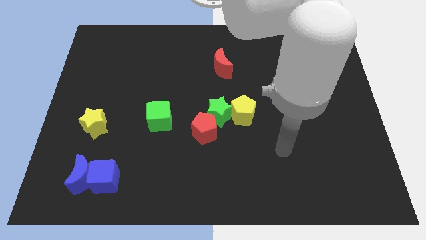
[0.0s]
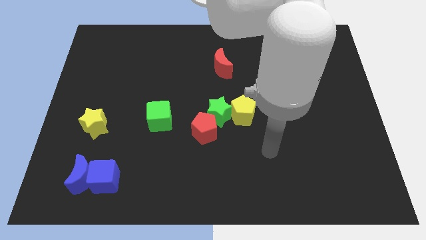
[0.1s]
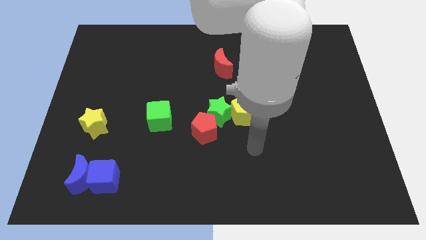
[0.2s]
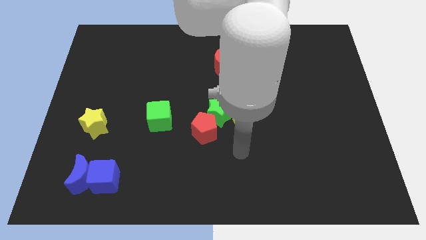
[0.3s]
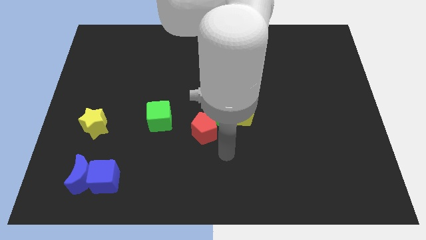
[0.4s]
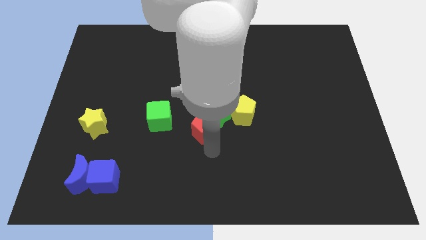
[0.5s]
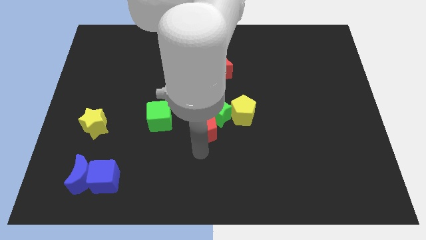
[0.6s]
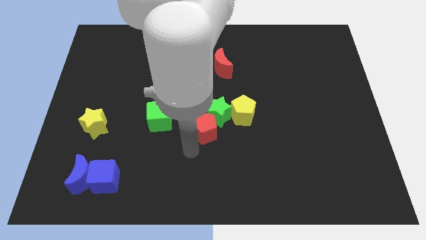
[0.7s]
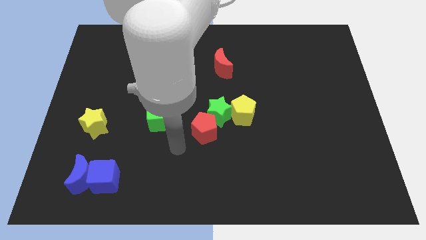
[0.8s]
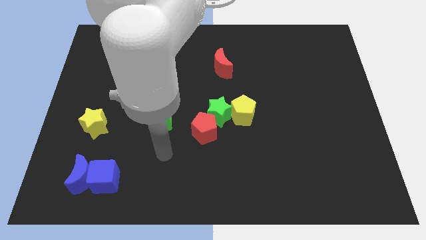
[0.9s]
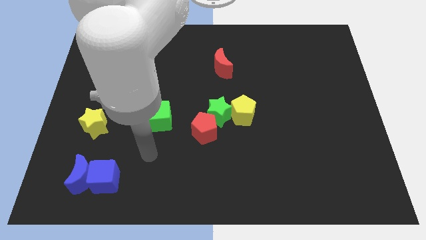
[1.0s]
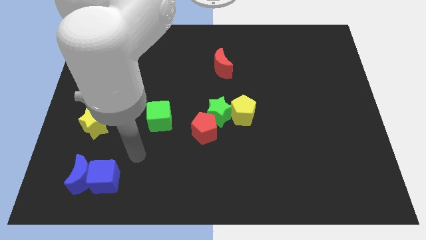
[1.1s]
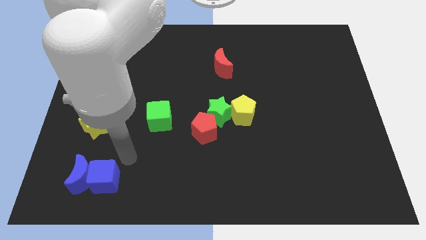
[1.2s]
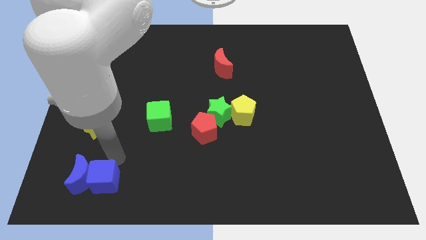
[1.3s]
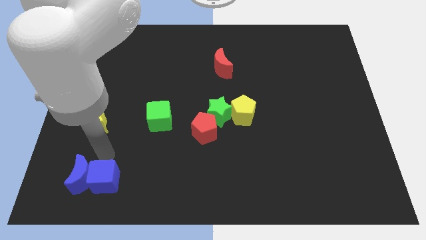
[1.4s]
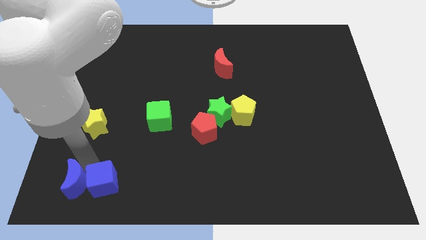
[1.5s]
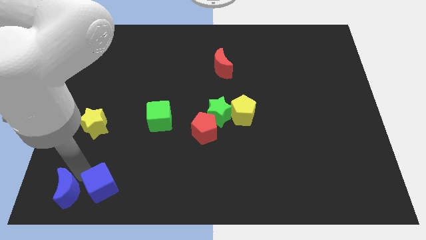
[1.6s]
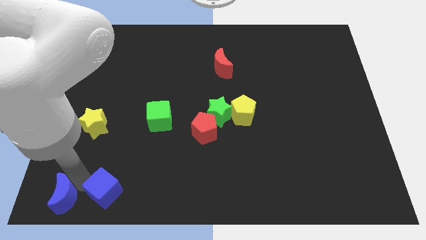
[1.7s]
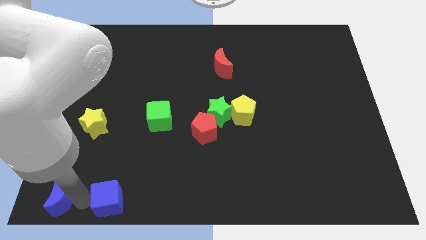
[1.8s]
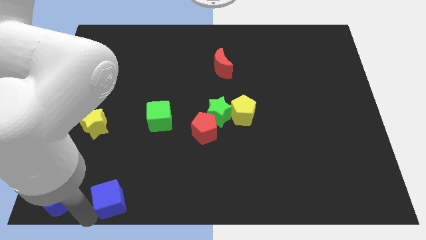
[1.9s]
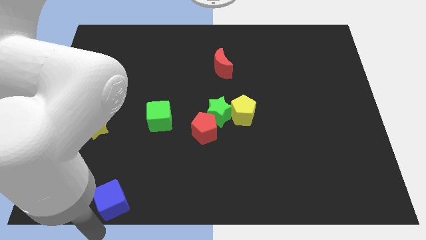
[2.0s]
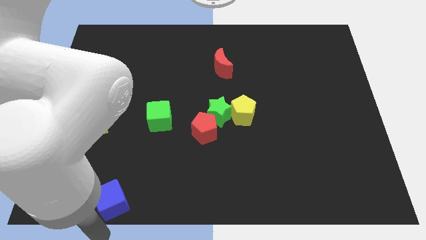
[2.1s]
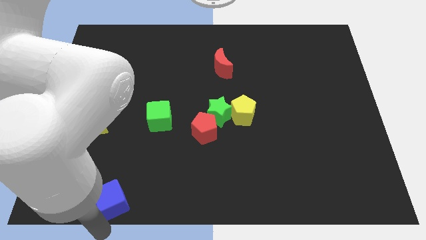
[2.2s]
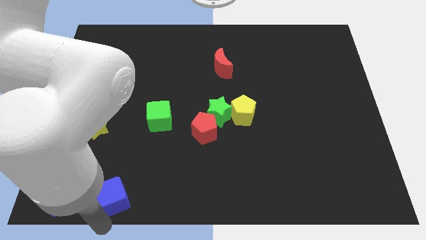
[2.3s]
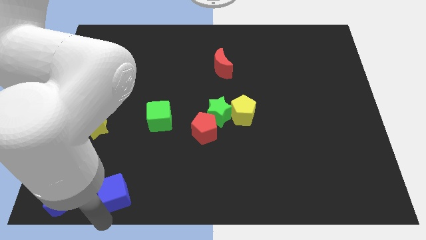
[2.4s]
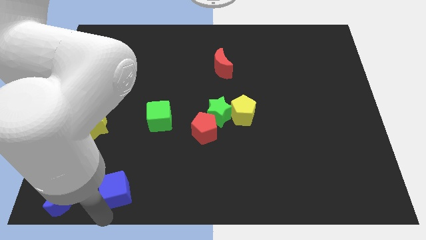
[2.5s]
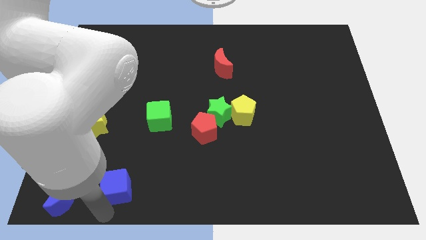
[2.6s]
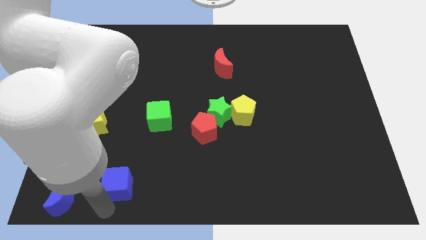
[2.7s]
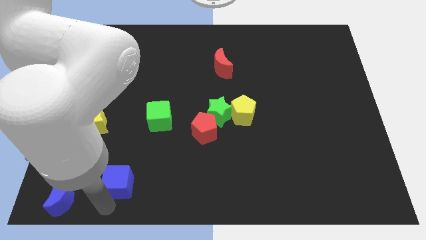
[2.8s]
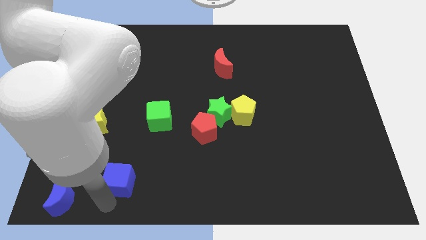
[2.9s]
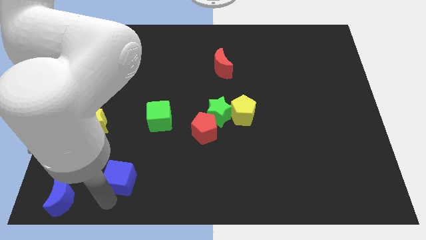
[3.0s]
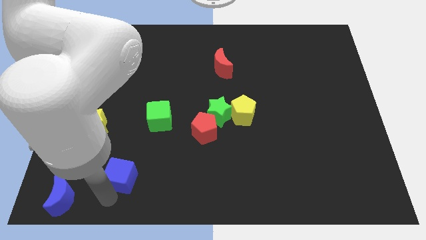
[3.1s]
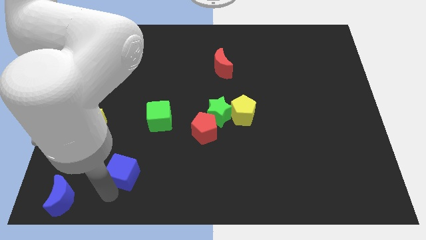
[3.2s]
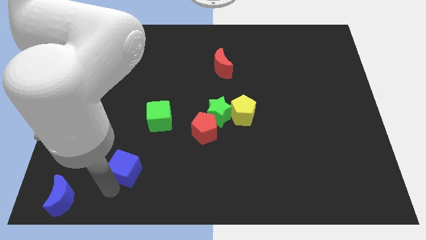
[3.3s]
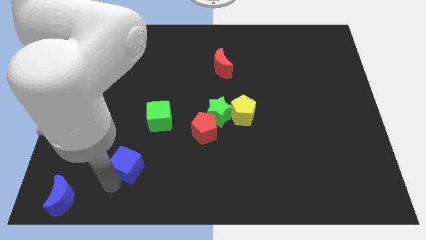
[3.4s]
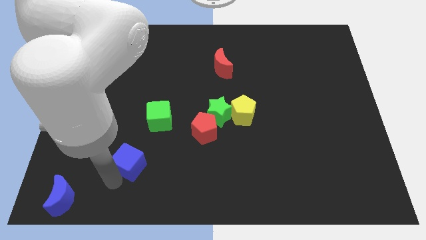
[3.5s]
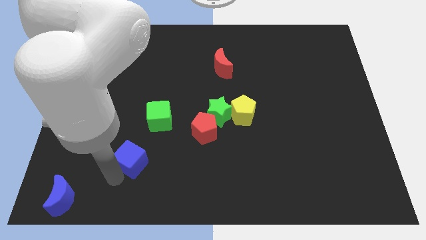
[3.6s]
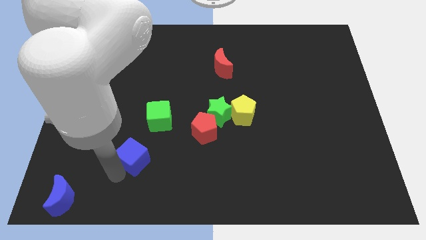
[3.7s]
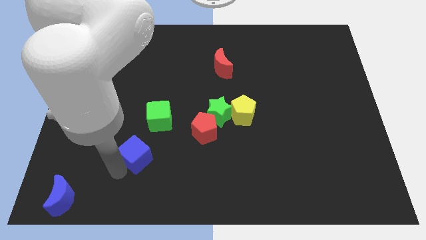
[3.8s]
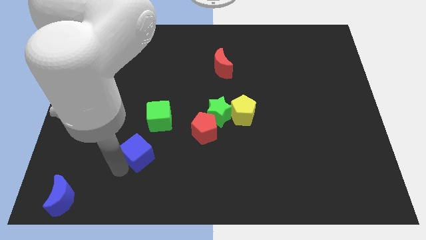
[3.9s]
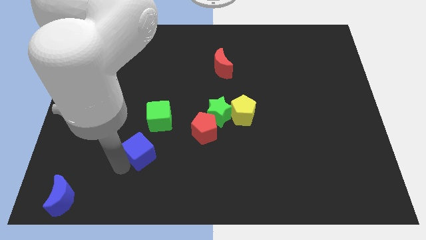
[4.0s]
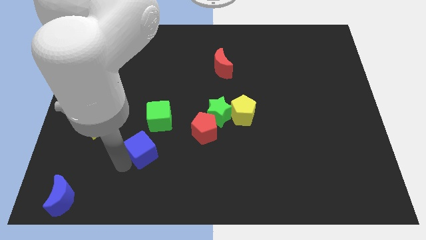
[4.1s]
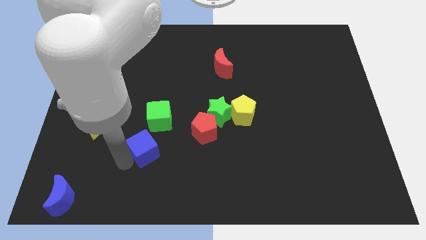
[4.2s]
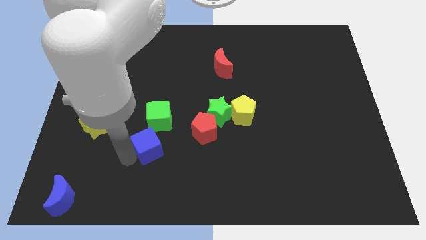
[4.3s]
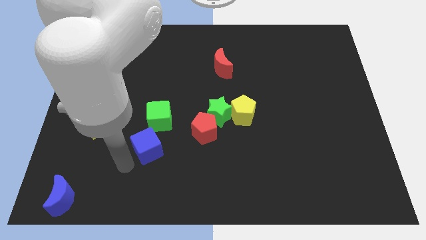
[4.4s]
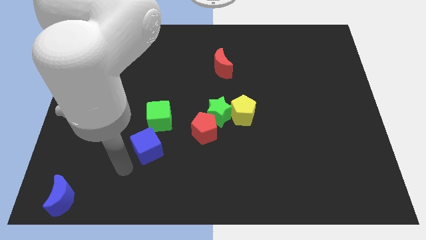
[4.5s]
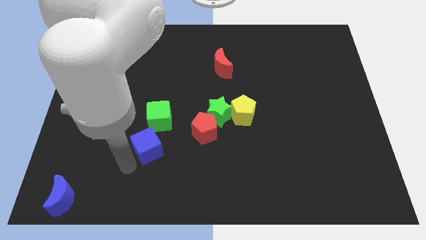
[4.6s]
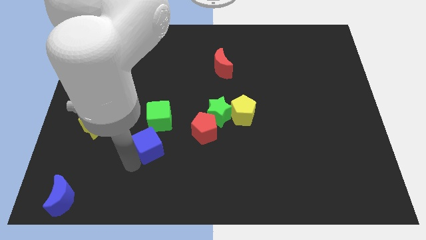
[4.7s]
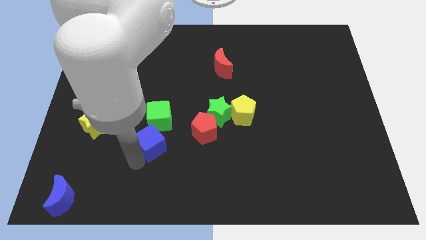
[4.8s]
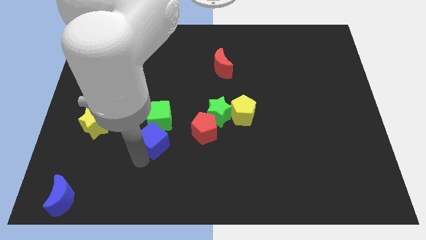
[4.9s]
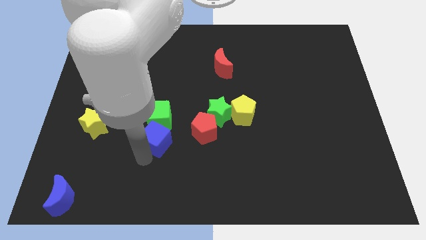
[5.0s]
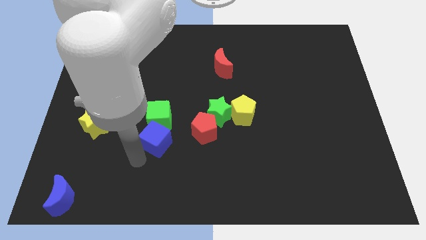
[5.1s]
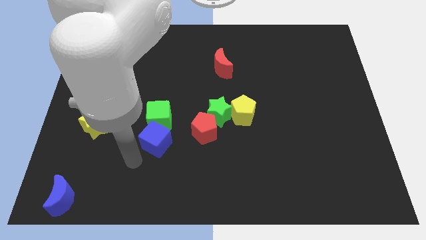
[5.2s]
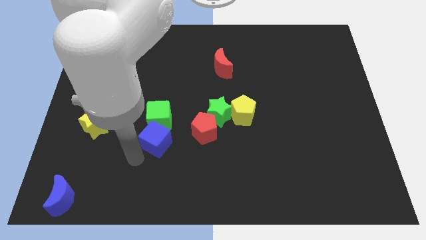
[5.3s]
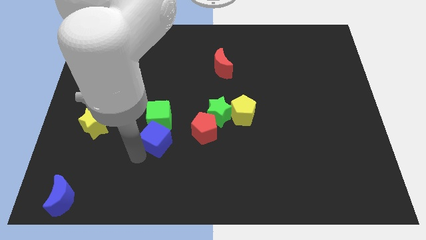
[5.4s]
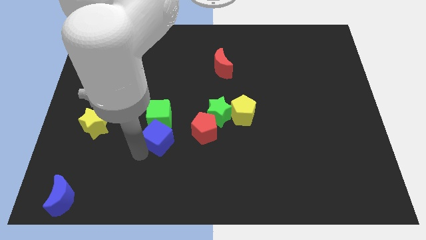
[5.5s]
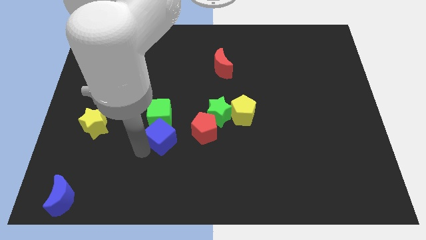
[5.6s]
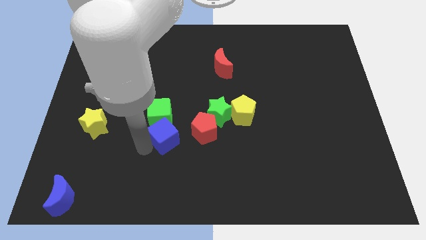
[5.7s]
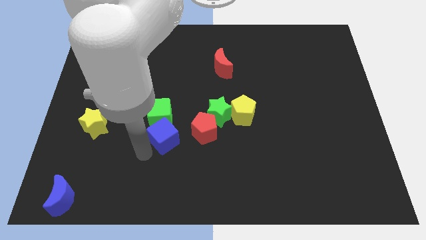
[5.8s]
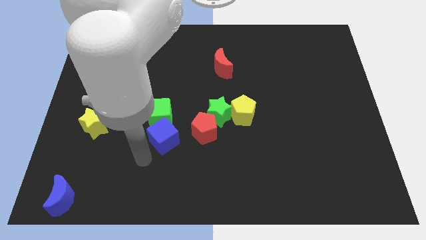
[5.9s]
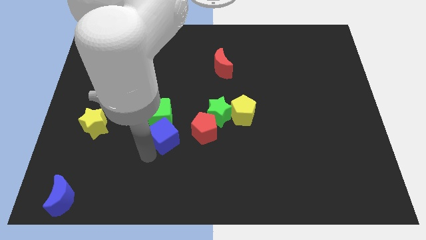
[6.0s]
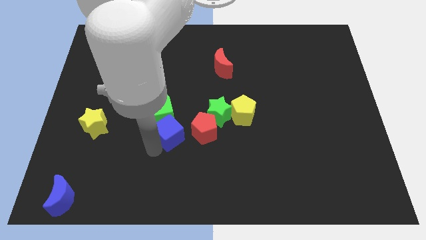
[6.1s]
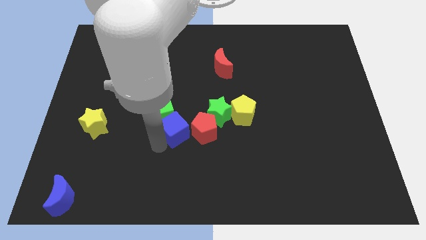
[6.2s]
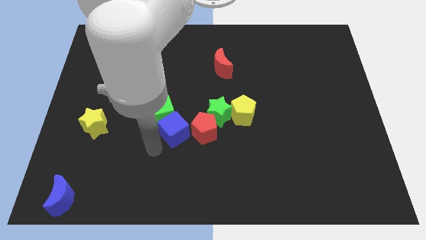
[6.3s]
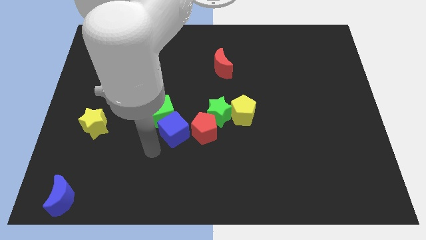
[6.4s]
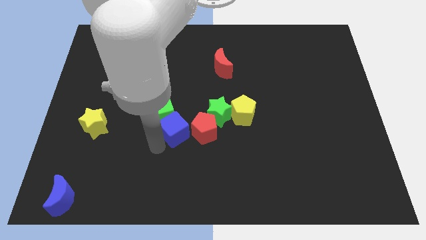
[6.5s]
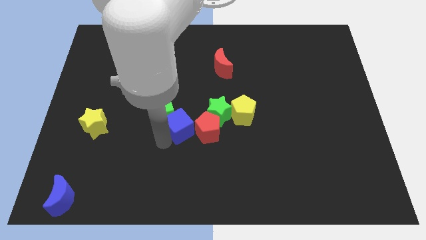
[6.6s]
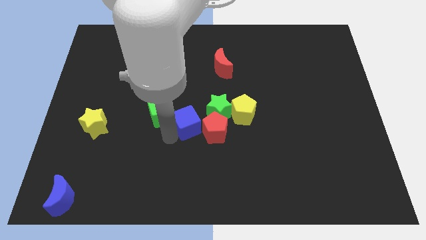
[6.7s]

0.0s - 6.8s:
slide the blue cube to the left side of the yellow pentagon

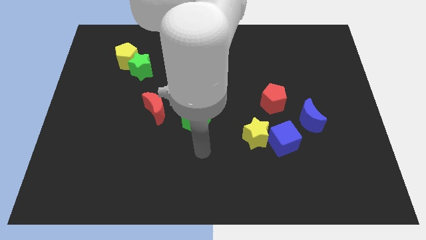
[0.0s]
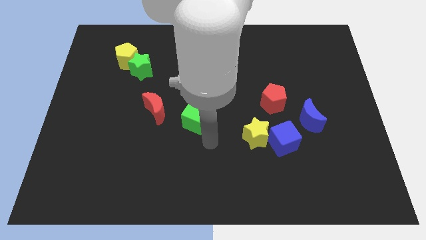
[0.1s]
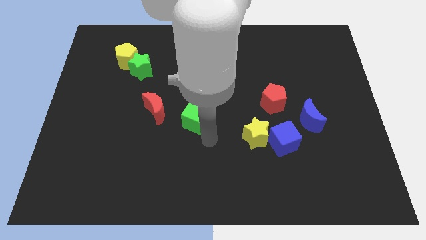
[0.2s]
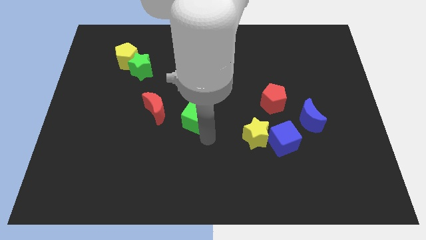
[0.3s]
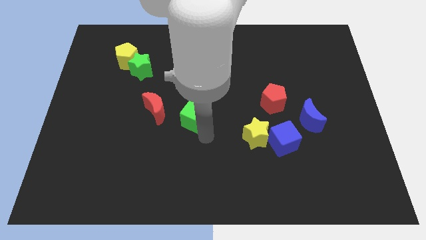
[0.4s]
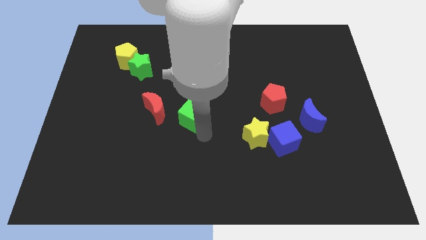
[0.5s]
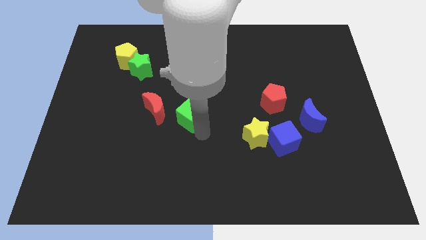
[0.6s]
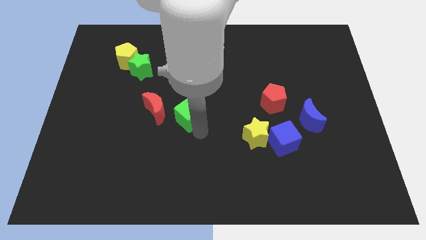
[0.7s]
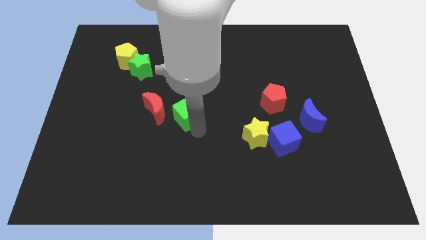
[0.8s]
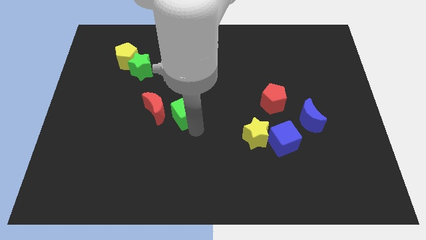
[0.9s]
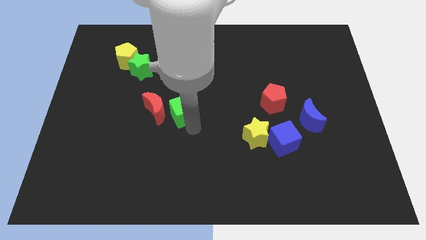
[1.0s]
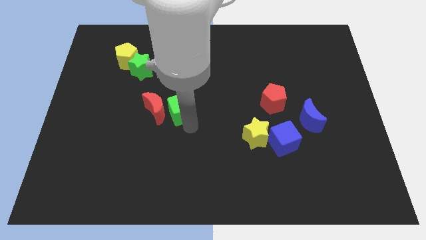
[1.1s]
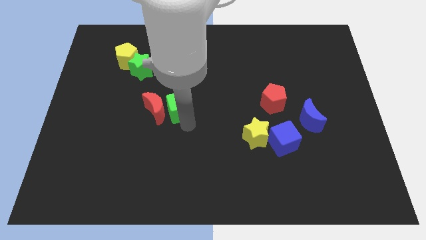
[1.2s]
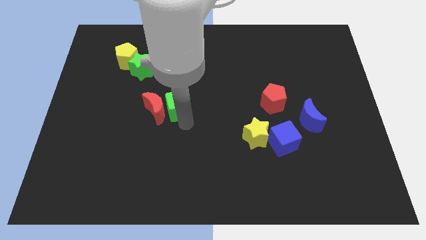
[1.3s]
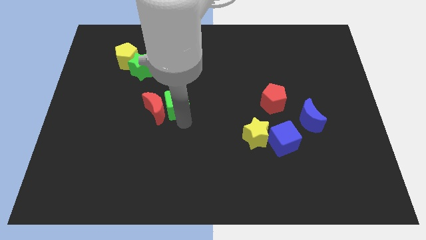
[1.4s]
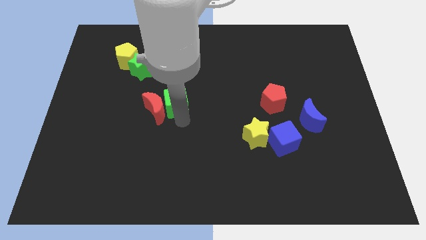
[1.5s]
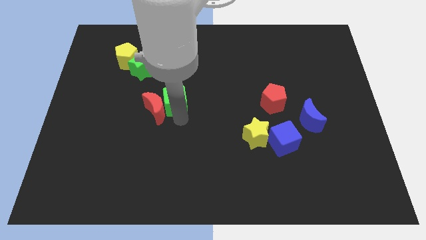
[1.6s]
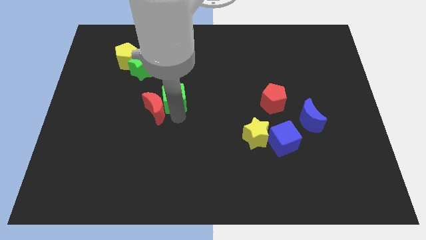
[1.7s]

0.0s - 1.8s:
put the green cube to the top of the red moon
